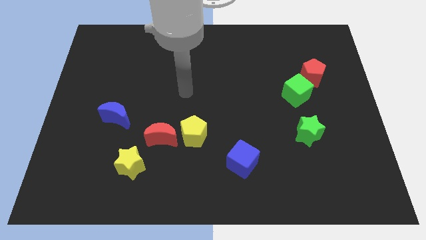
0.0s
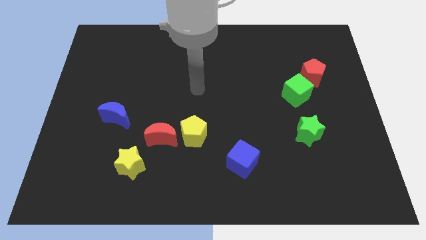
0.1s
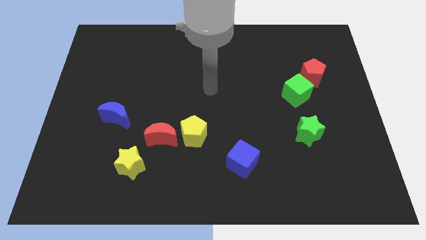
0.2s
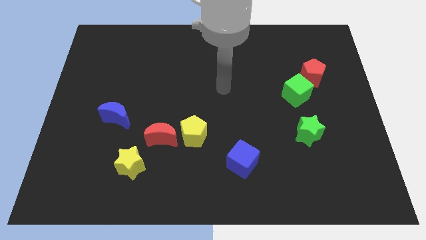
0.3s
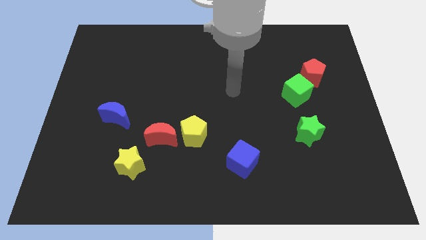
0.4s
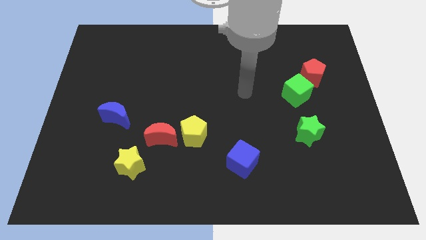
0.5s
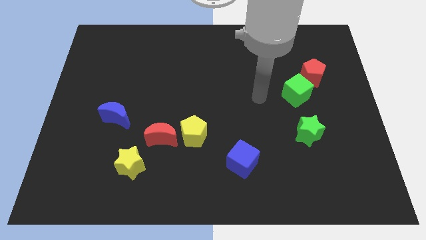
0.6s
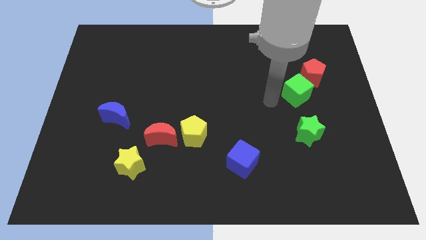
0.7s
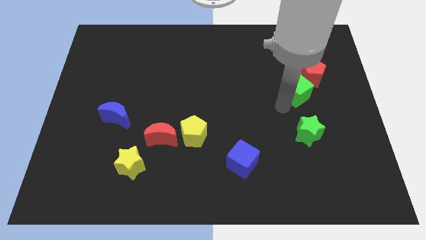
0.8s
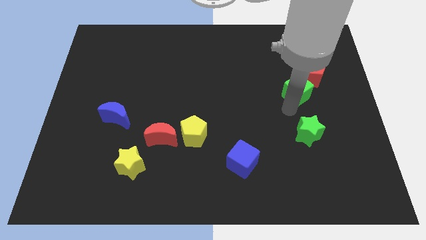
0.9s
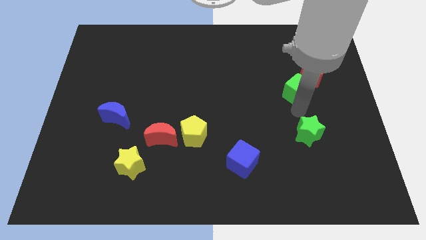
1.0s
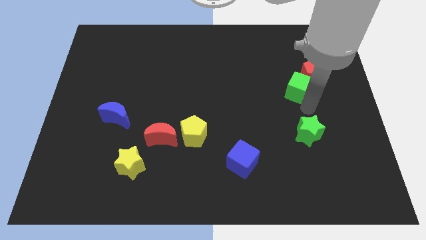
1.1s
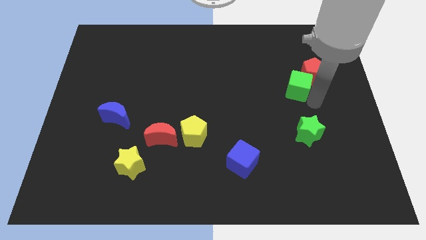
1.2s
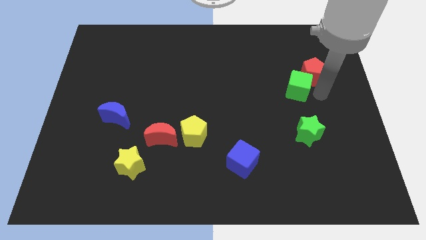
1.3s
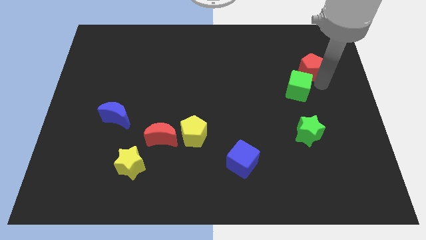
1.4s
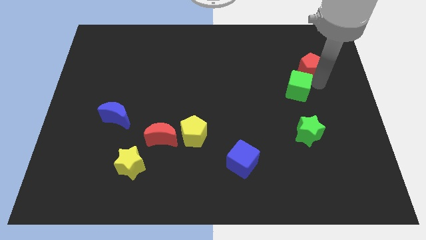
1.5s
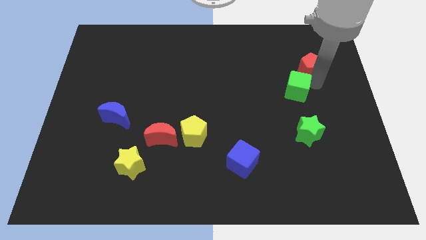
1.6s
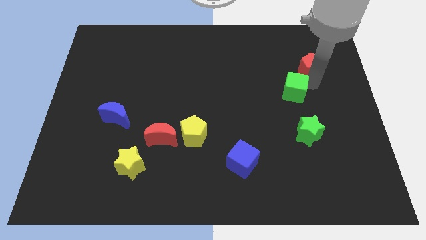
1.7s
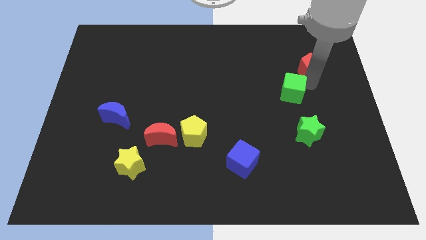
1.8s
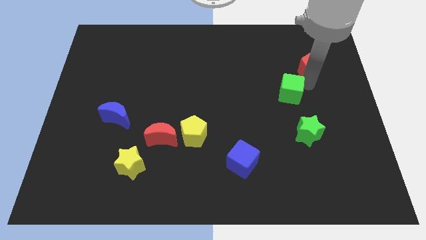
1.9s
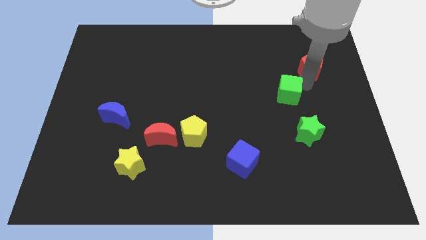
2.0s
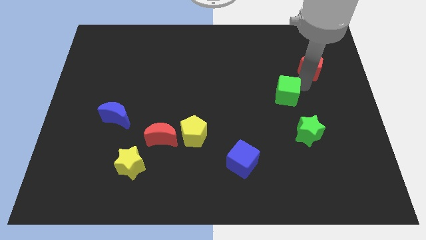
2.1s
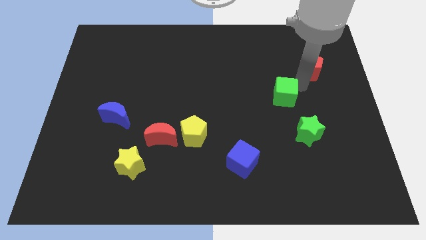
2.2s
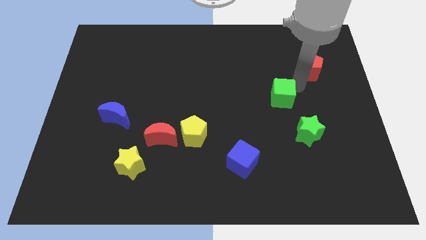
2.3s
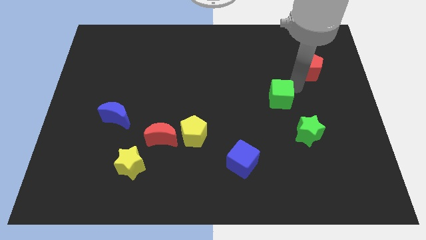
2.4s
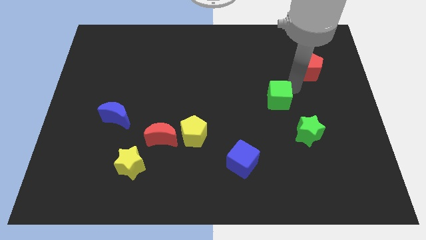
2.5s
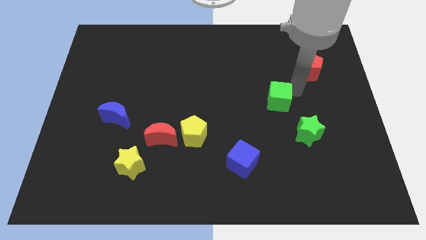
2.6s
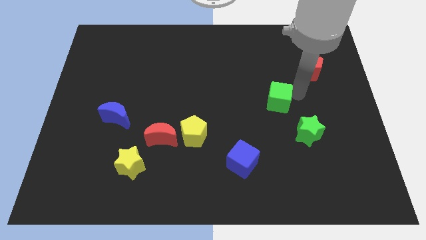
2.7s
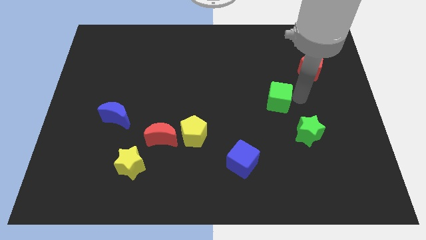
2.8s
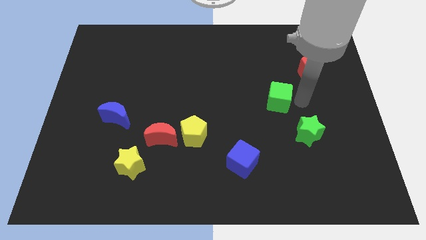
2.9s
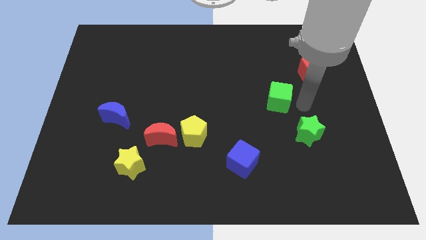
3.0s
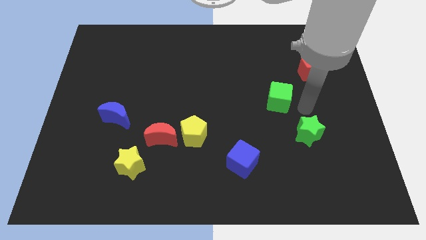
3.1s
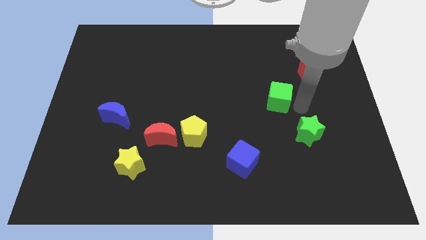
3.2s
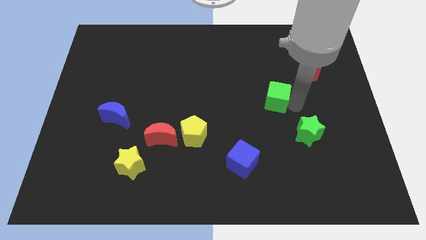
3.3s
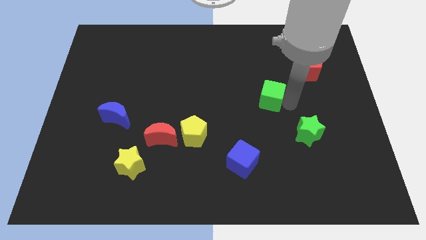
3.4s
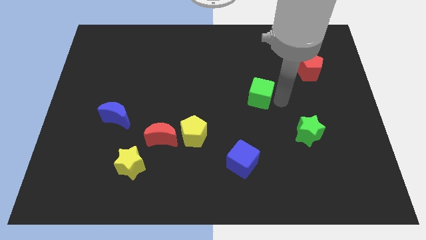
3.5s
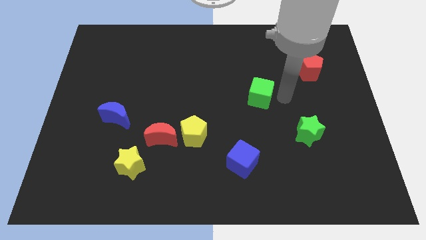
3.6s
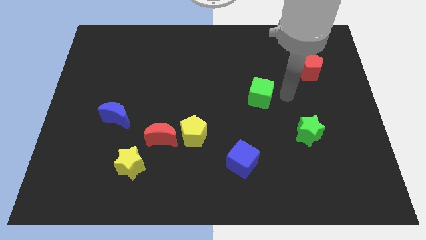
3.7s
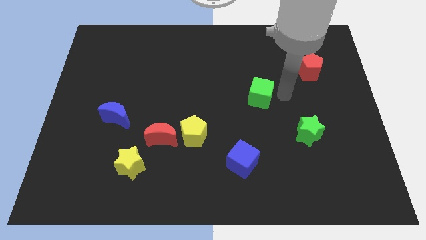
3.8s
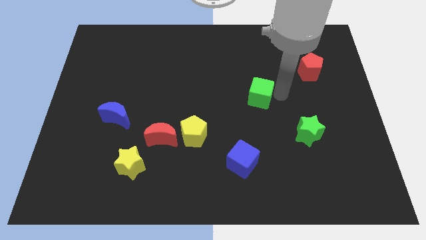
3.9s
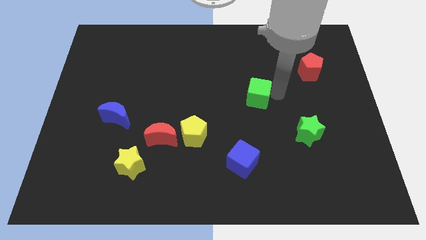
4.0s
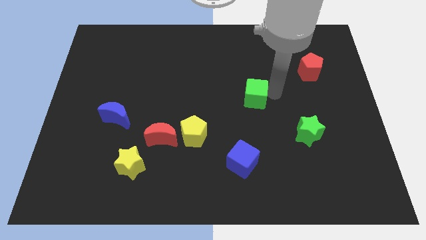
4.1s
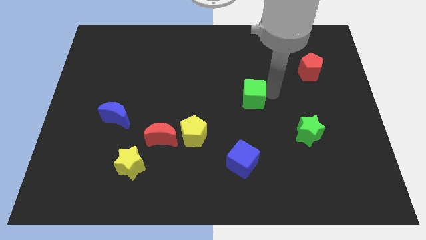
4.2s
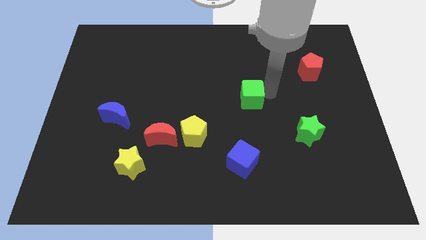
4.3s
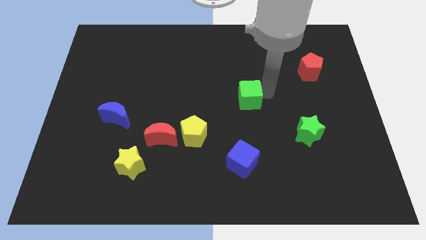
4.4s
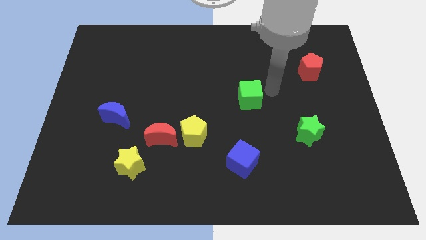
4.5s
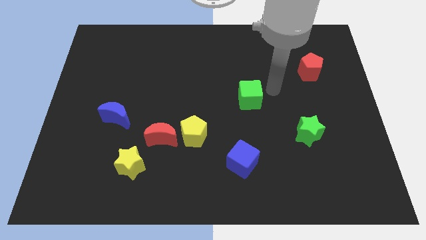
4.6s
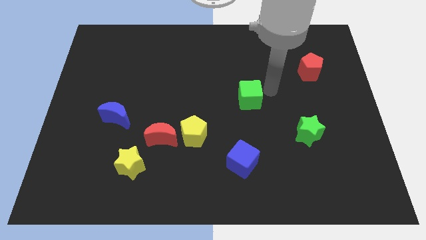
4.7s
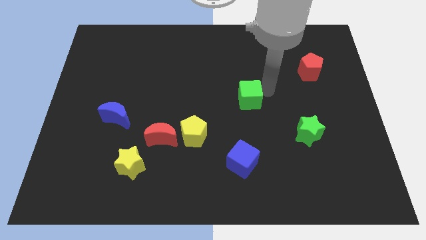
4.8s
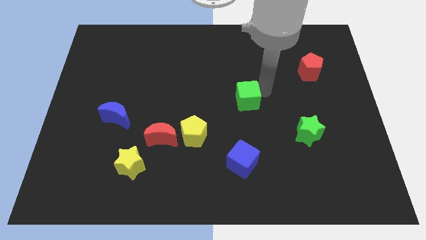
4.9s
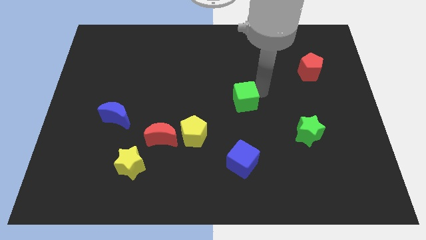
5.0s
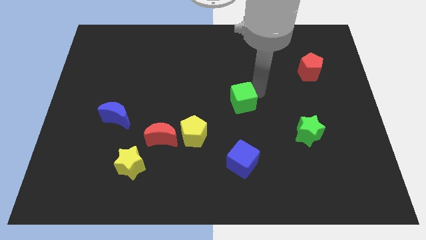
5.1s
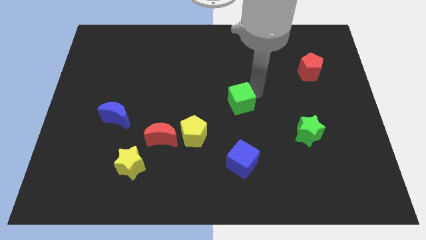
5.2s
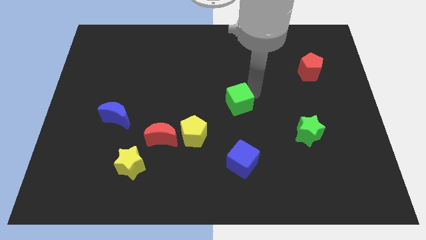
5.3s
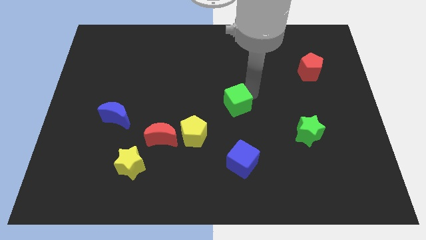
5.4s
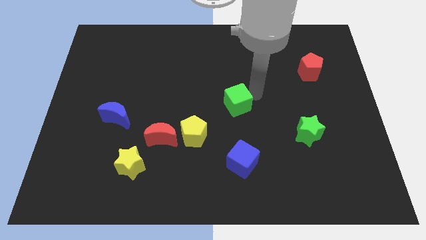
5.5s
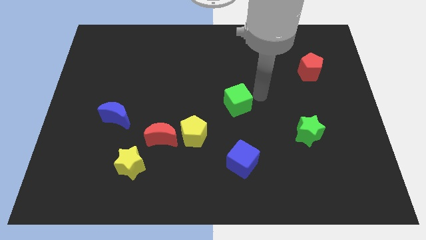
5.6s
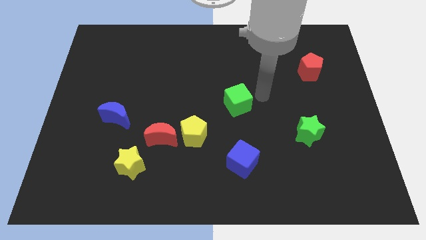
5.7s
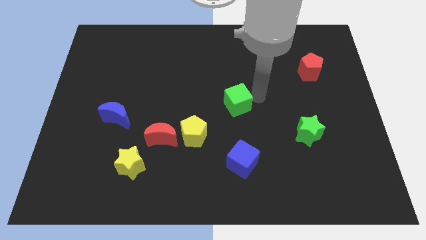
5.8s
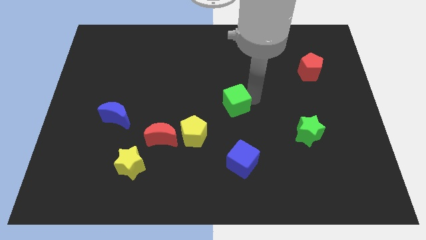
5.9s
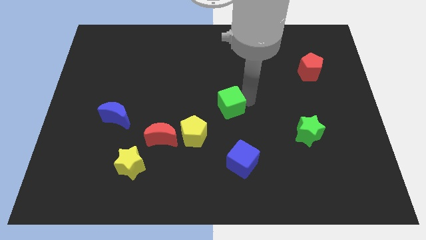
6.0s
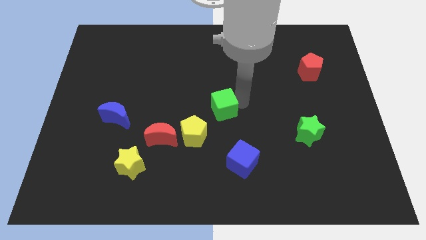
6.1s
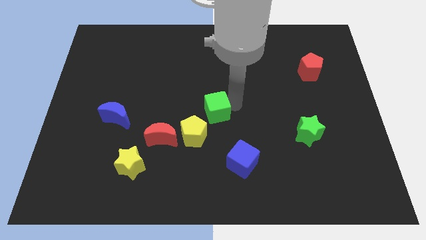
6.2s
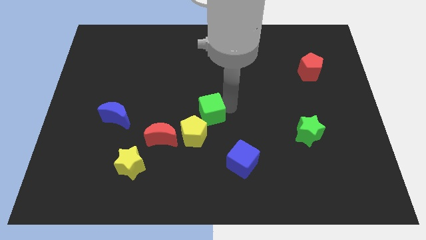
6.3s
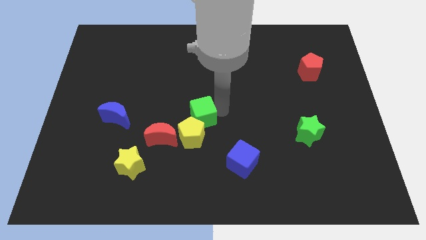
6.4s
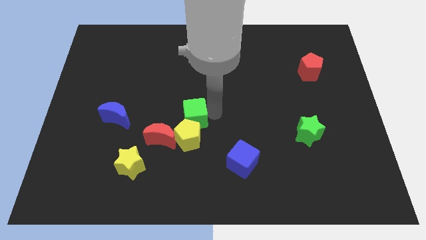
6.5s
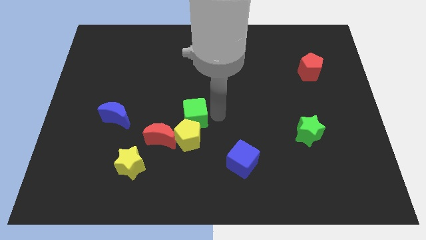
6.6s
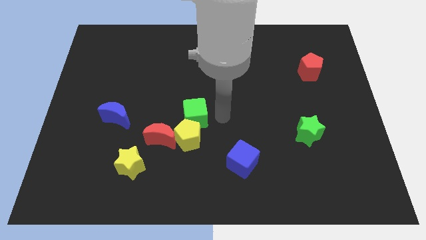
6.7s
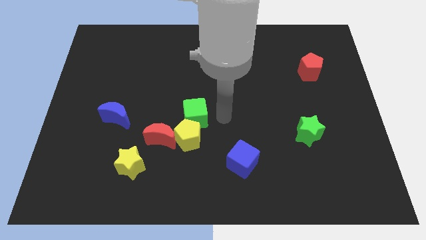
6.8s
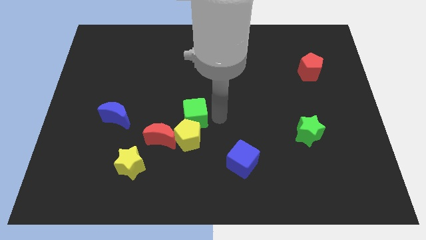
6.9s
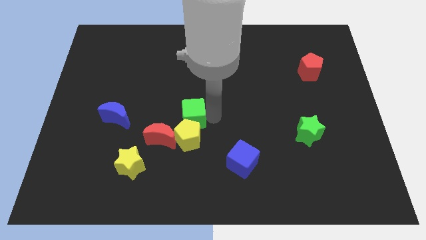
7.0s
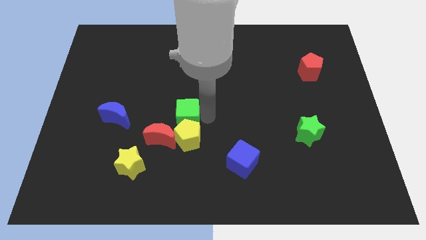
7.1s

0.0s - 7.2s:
push the green cube right of the blue moon
